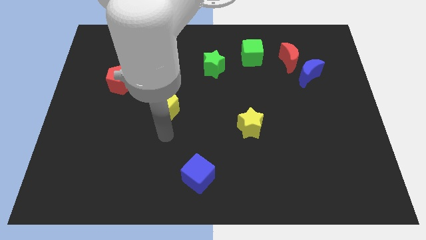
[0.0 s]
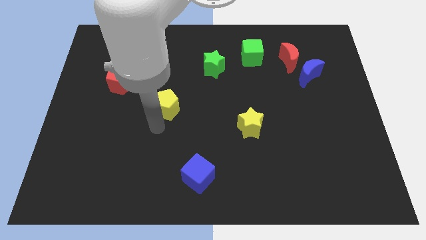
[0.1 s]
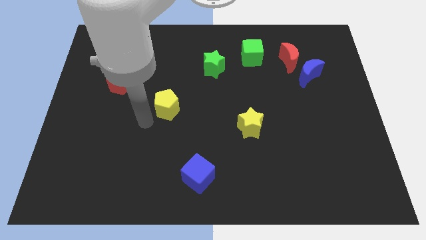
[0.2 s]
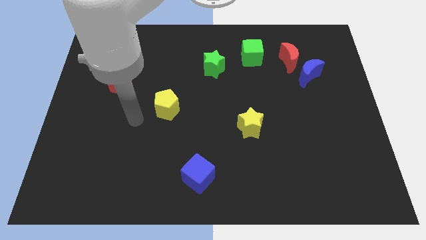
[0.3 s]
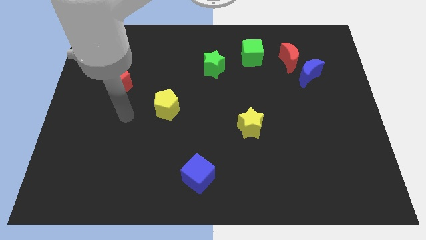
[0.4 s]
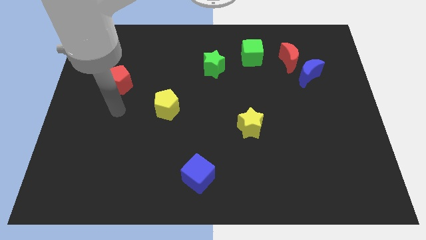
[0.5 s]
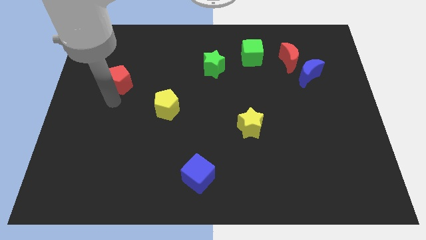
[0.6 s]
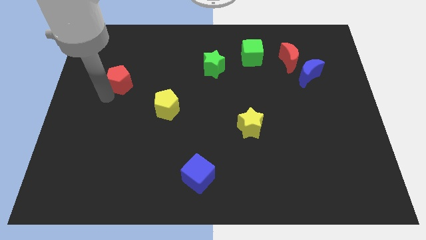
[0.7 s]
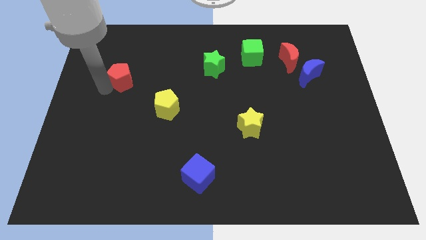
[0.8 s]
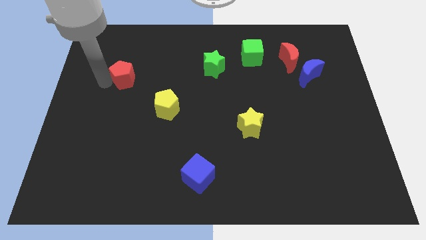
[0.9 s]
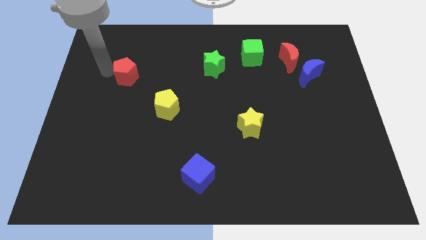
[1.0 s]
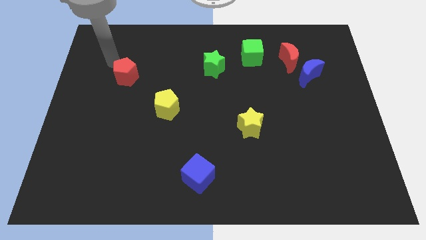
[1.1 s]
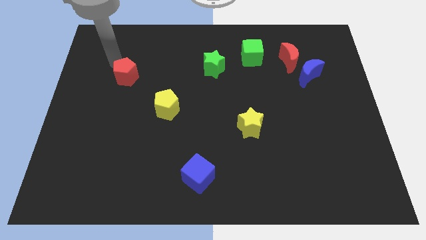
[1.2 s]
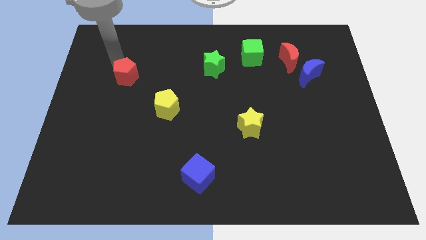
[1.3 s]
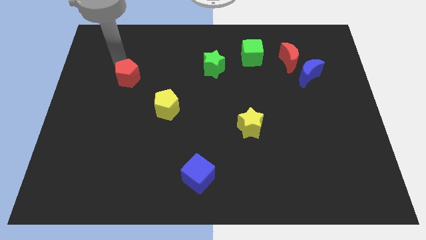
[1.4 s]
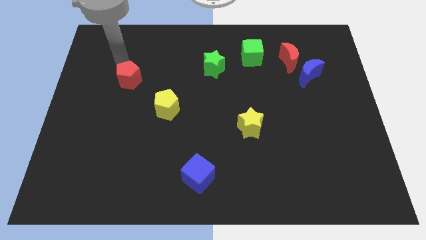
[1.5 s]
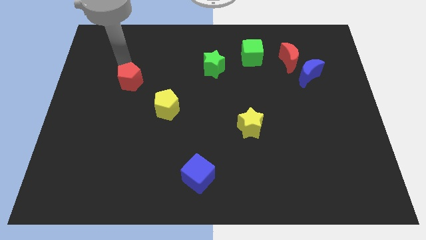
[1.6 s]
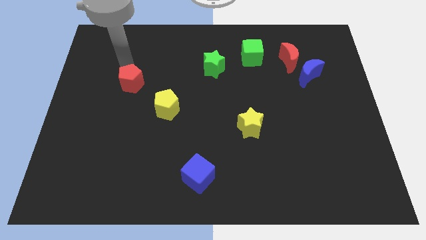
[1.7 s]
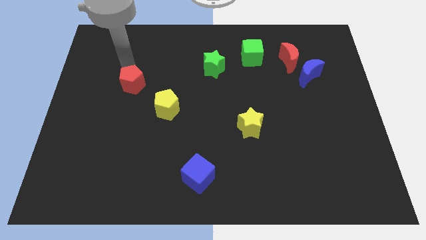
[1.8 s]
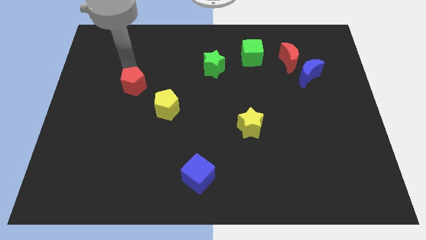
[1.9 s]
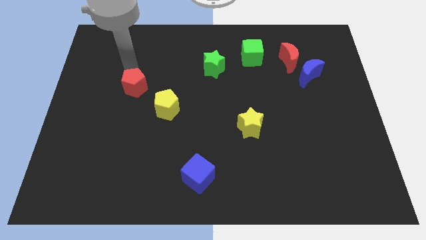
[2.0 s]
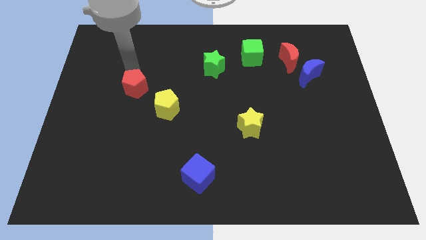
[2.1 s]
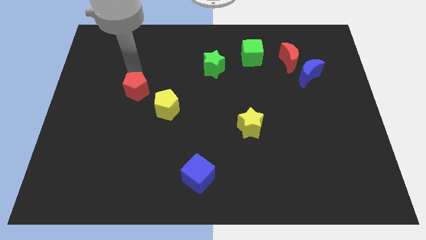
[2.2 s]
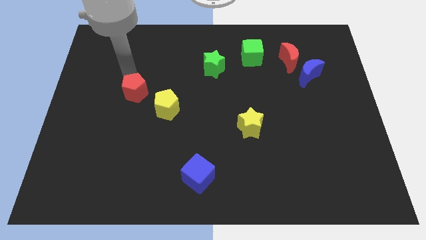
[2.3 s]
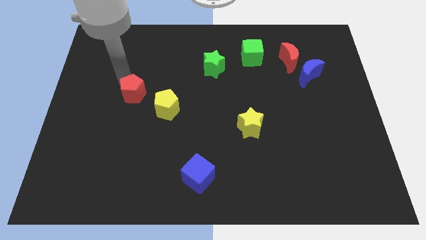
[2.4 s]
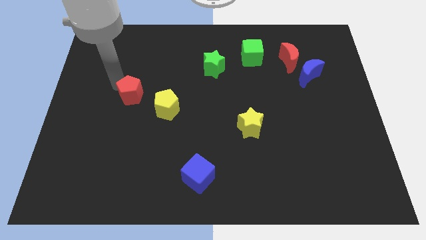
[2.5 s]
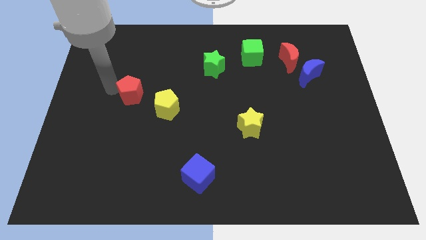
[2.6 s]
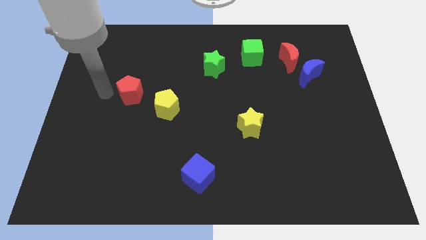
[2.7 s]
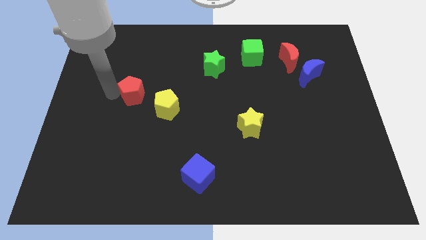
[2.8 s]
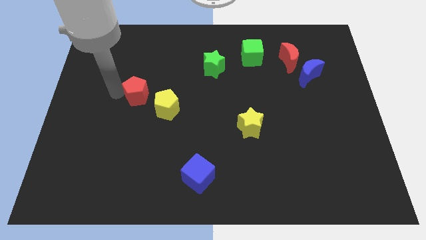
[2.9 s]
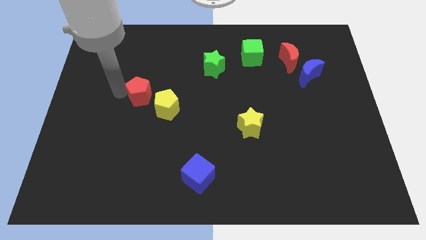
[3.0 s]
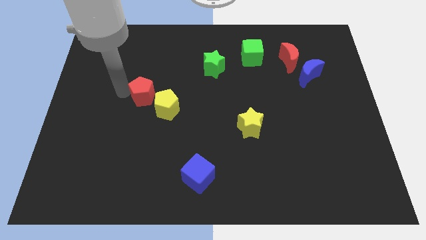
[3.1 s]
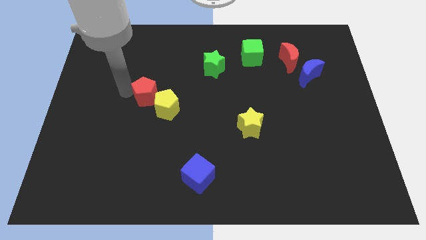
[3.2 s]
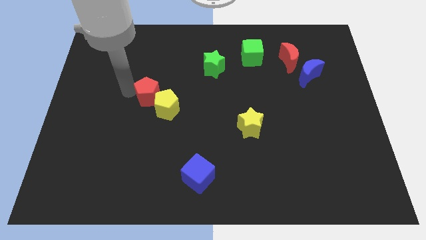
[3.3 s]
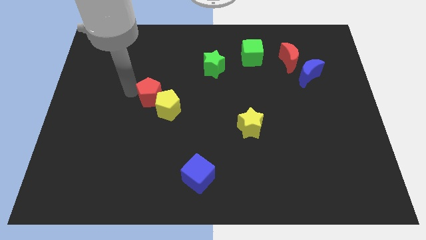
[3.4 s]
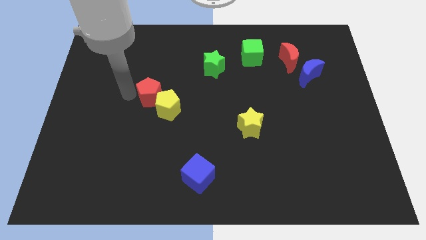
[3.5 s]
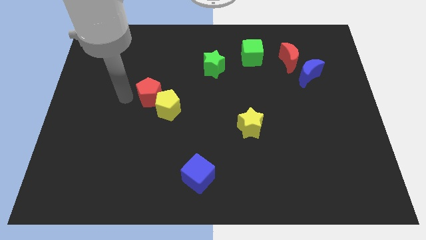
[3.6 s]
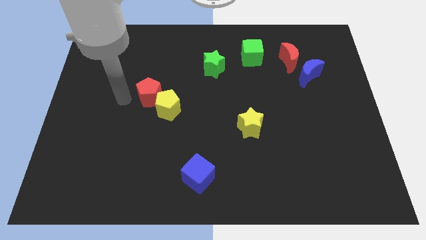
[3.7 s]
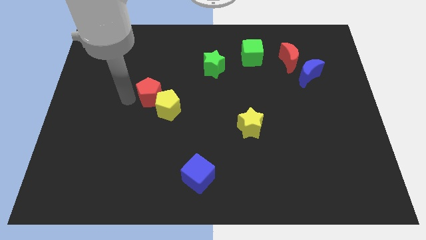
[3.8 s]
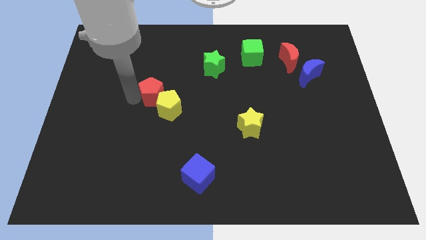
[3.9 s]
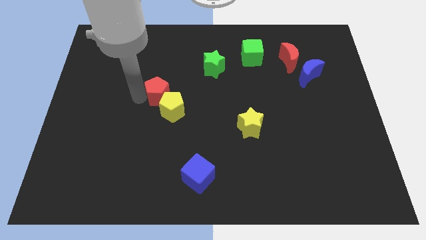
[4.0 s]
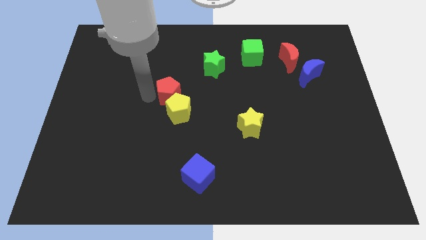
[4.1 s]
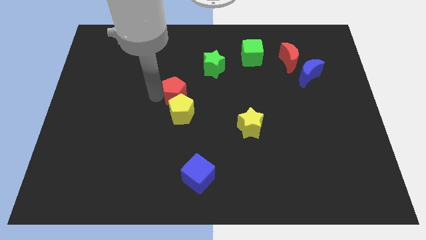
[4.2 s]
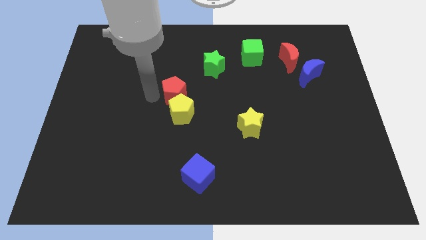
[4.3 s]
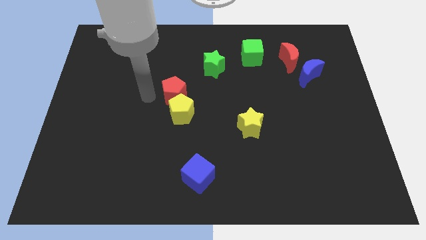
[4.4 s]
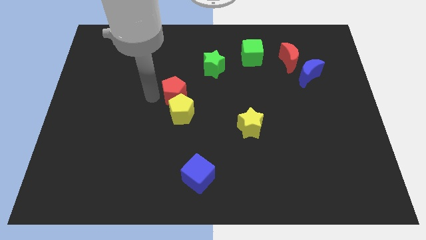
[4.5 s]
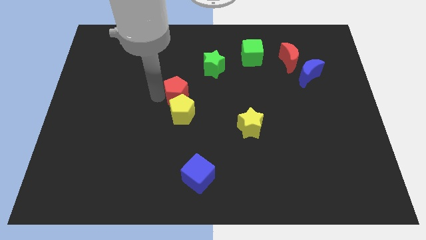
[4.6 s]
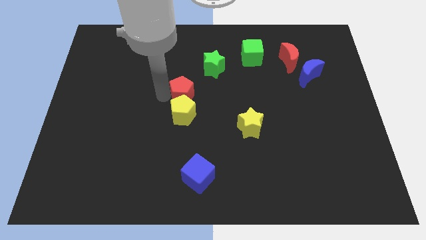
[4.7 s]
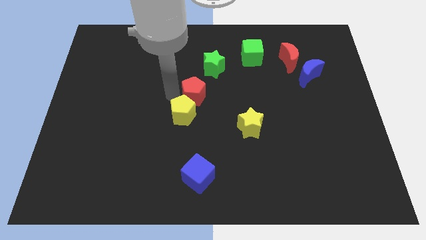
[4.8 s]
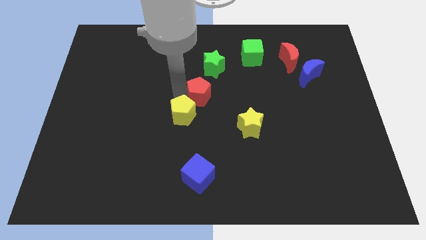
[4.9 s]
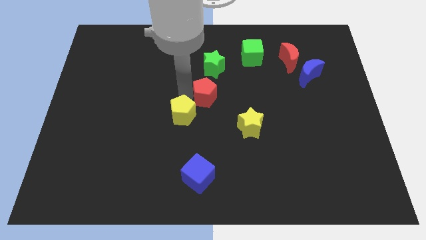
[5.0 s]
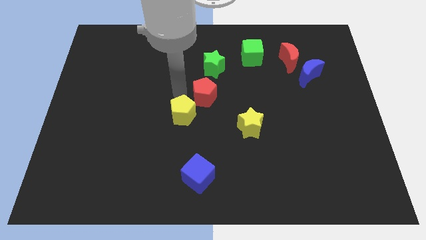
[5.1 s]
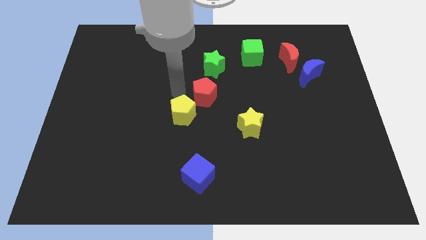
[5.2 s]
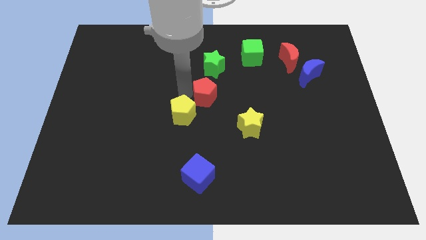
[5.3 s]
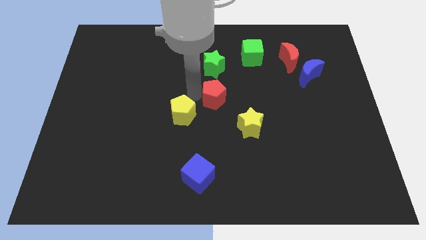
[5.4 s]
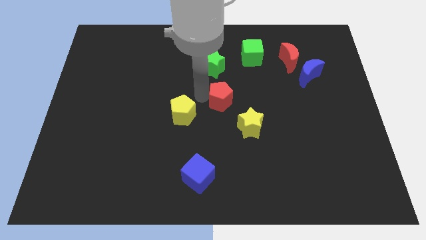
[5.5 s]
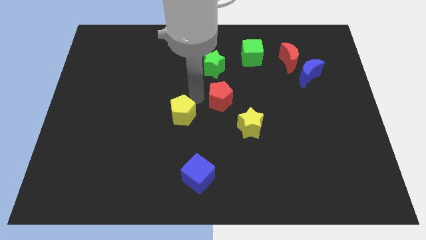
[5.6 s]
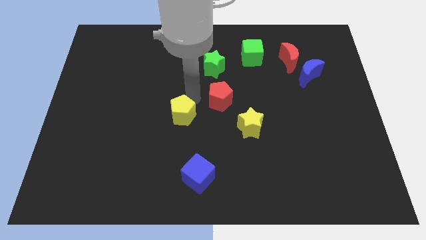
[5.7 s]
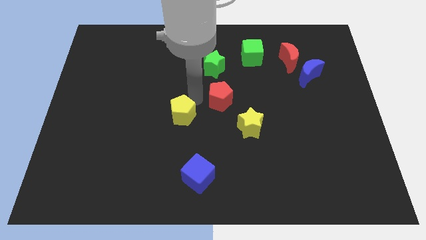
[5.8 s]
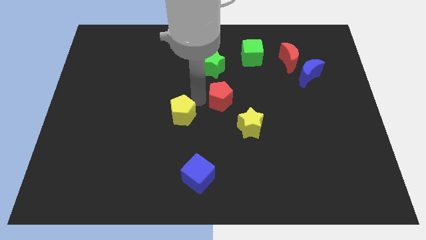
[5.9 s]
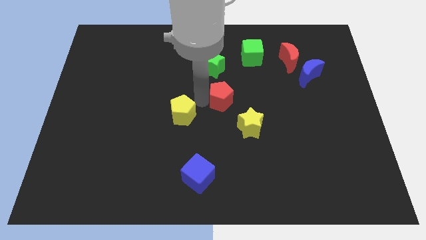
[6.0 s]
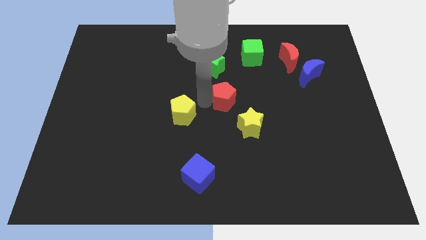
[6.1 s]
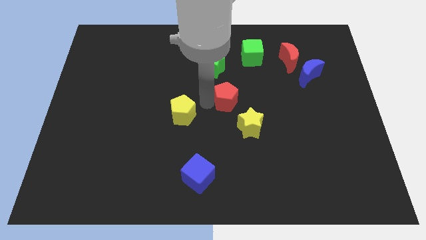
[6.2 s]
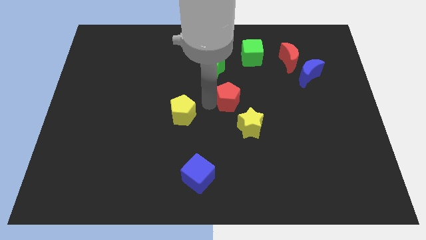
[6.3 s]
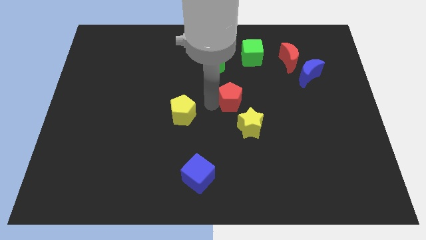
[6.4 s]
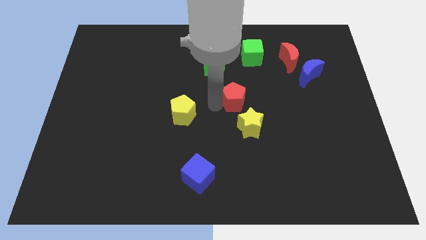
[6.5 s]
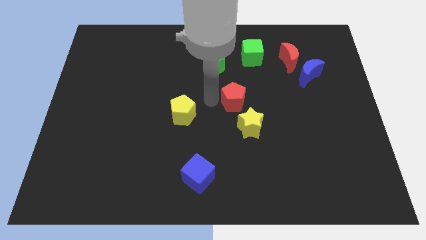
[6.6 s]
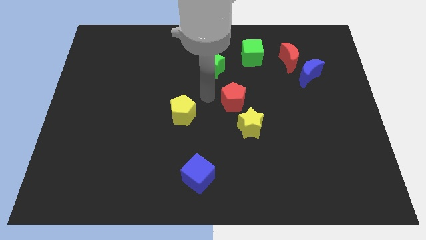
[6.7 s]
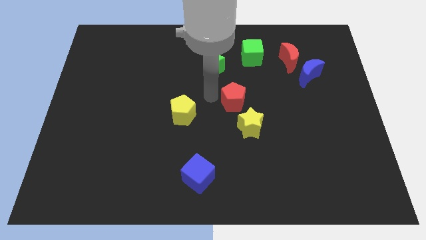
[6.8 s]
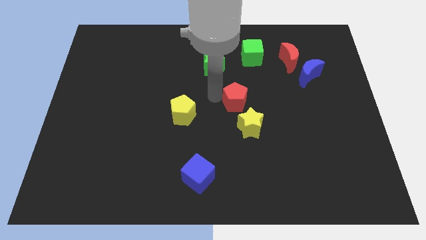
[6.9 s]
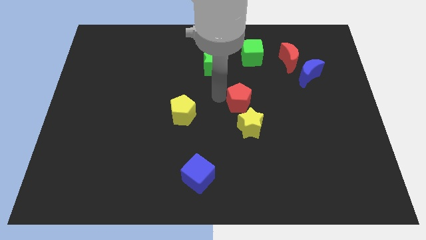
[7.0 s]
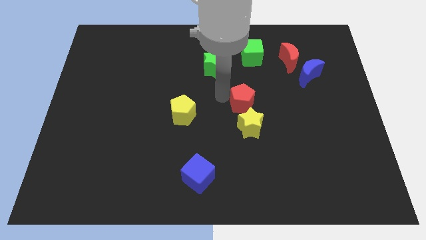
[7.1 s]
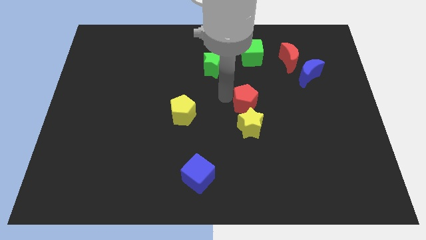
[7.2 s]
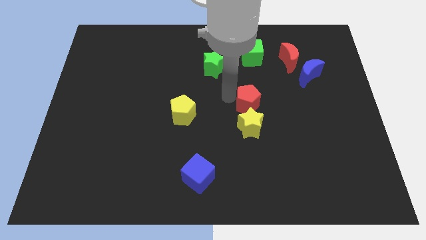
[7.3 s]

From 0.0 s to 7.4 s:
push the red pentagon to the top right of the yellow star

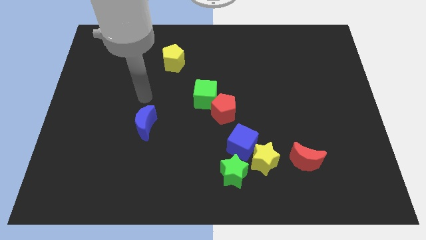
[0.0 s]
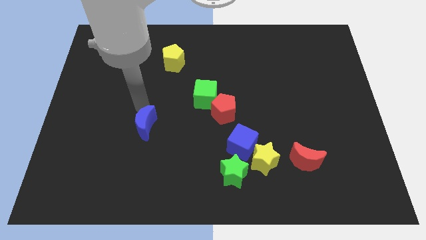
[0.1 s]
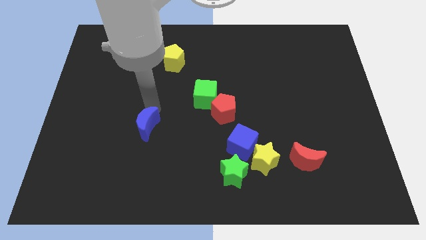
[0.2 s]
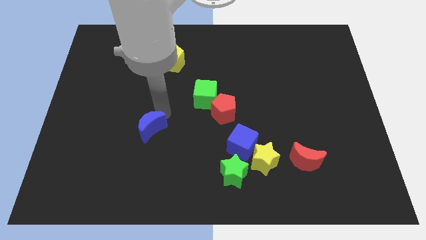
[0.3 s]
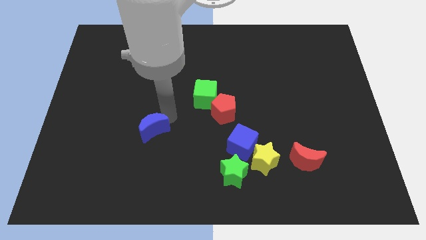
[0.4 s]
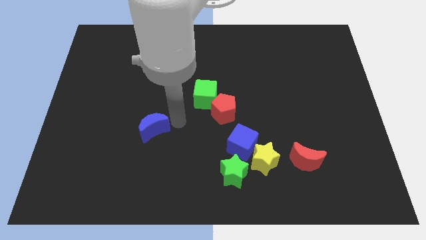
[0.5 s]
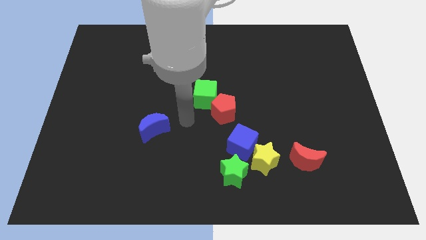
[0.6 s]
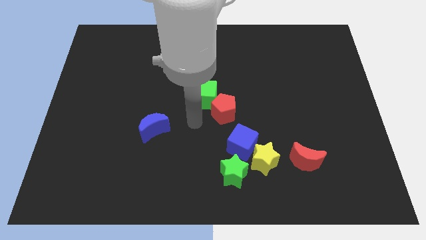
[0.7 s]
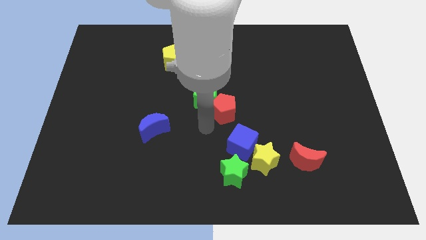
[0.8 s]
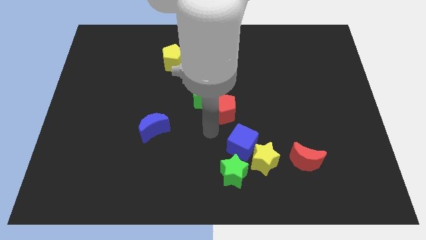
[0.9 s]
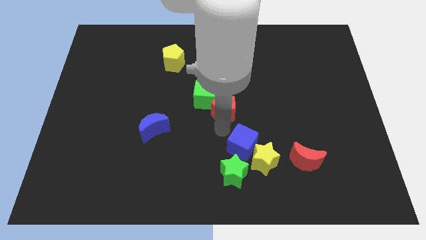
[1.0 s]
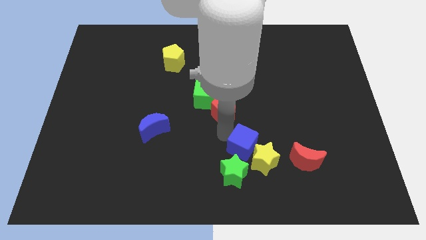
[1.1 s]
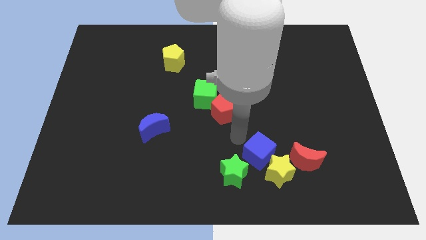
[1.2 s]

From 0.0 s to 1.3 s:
push the yellow star diagonally down and to the left of the red moon
